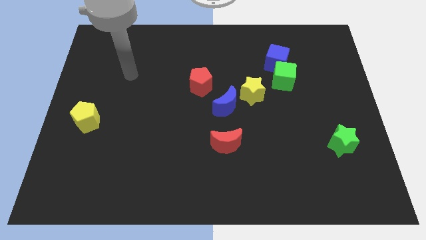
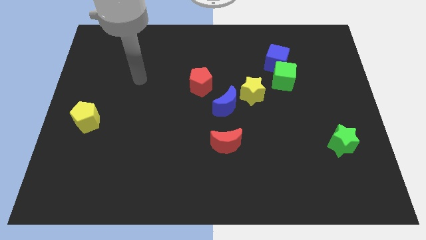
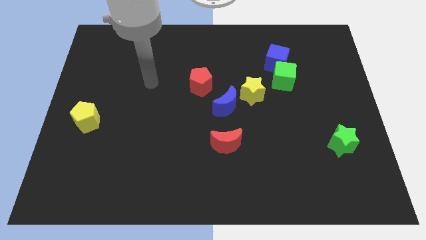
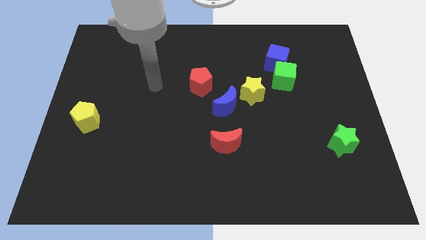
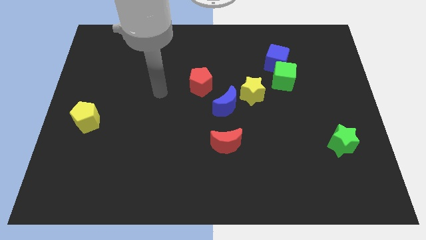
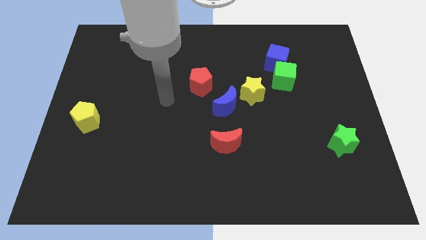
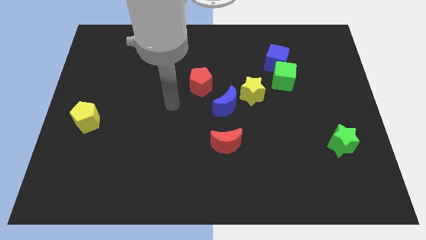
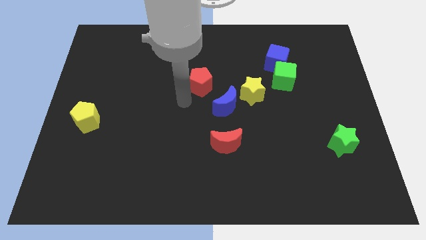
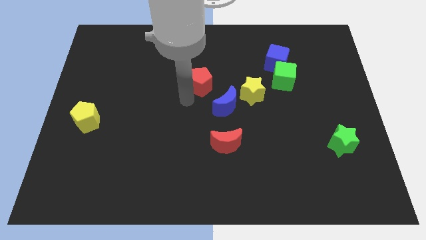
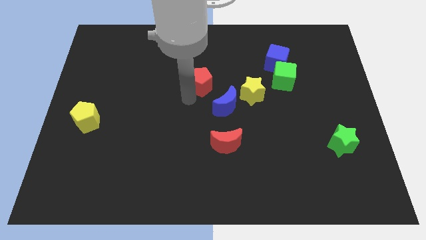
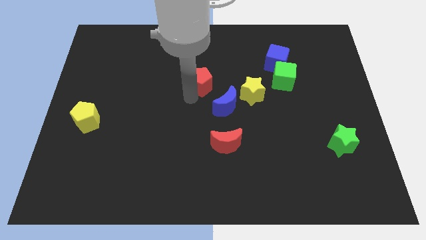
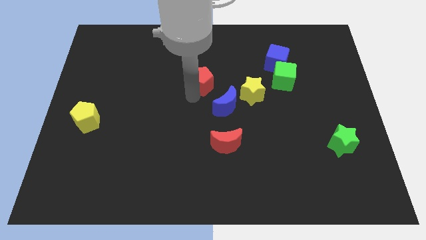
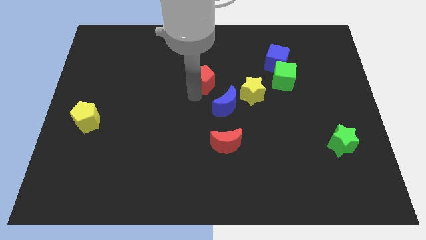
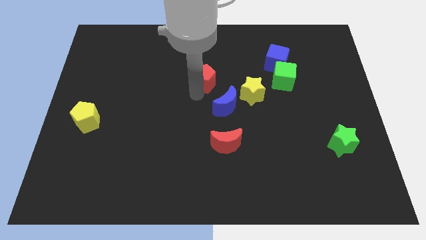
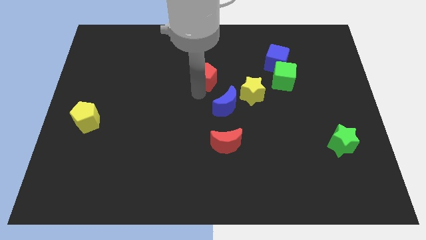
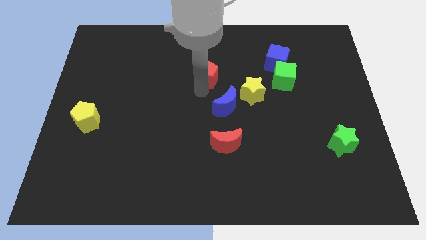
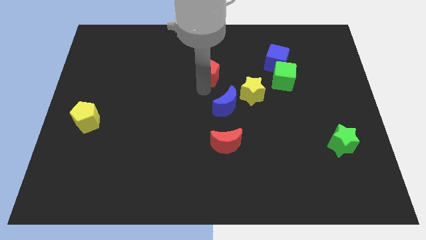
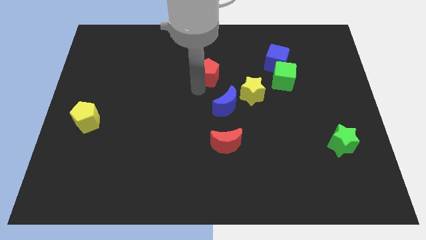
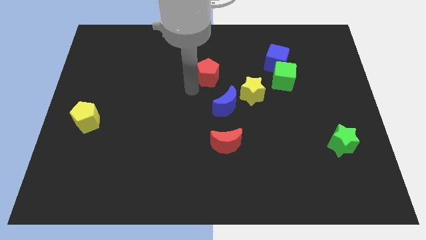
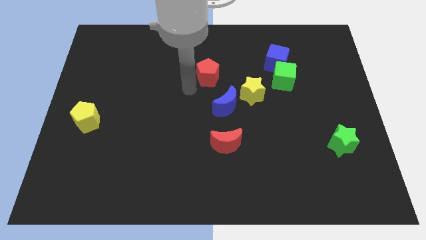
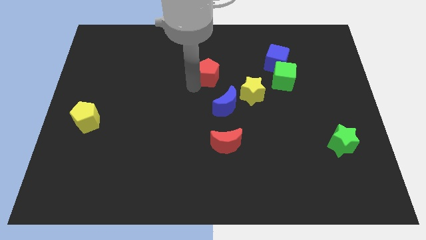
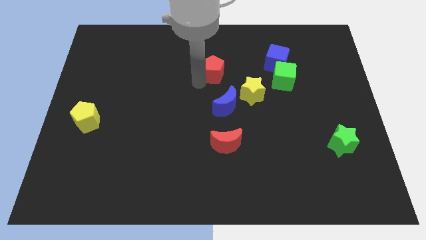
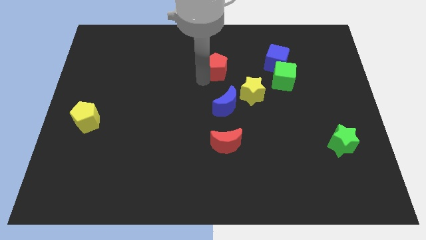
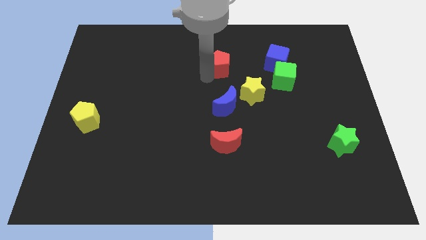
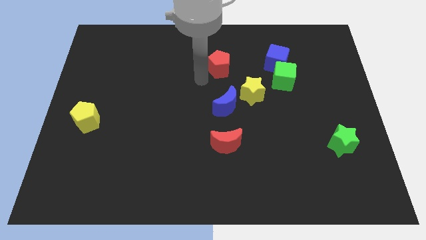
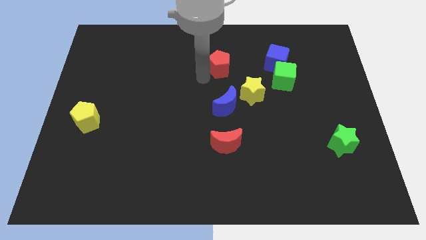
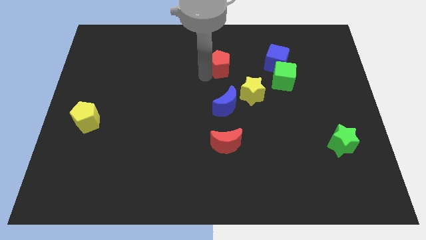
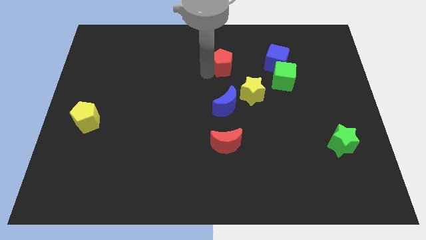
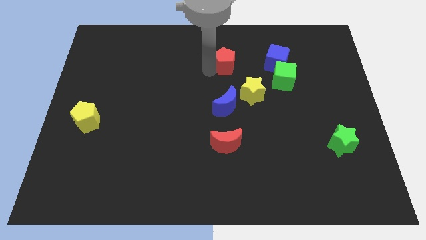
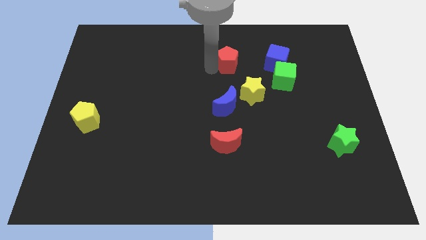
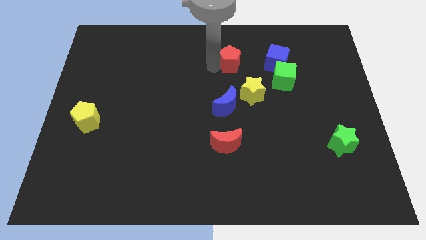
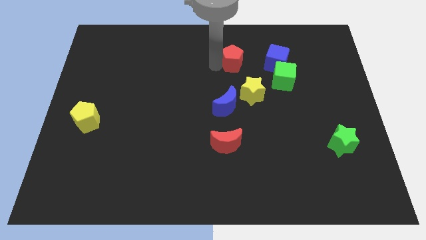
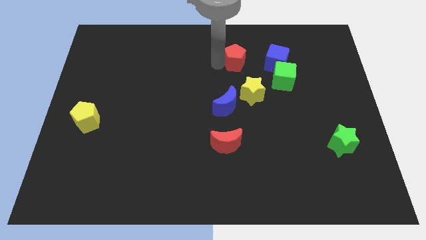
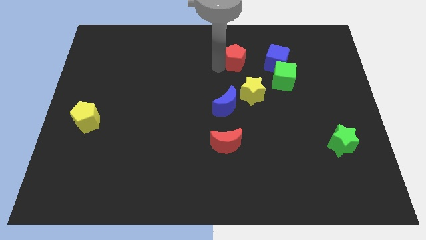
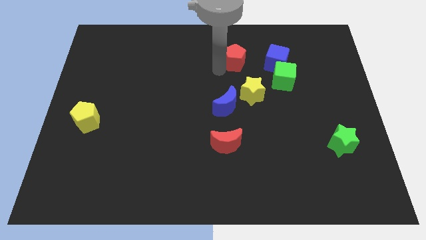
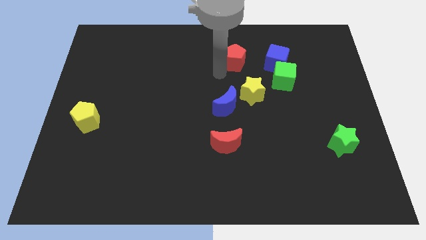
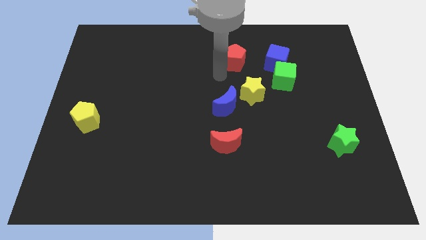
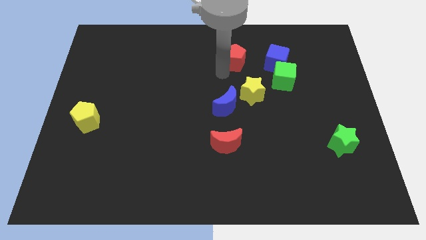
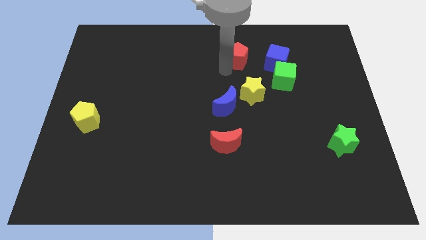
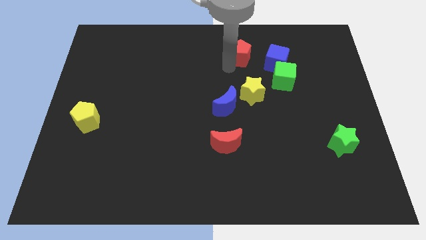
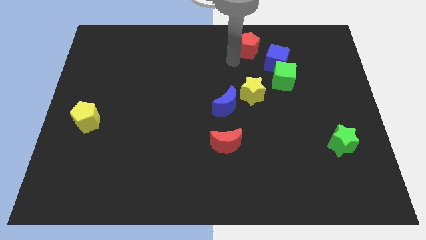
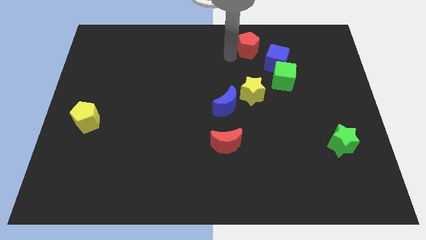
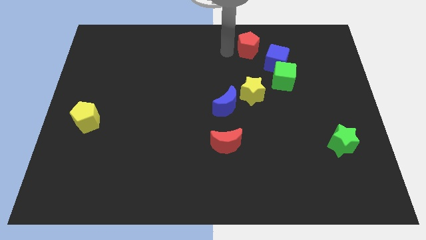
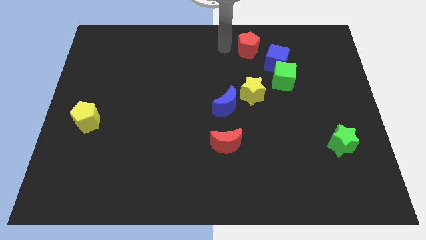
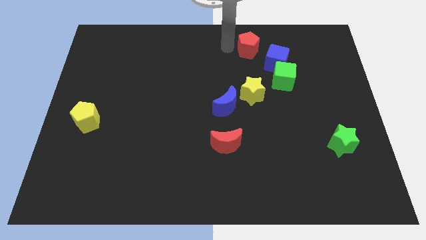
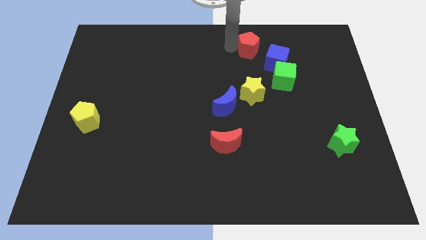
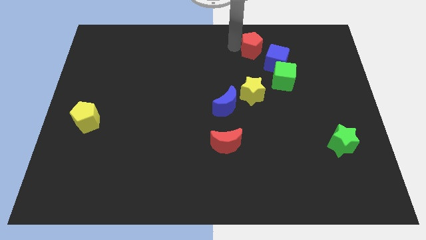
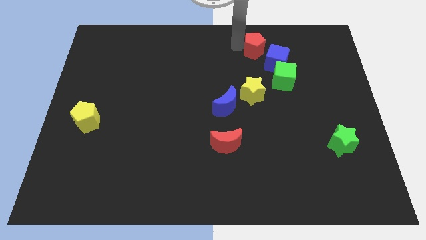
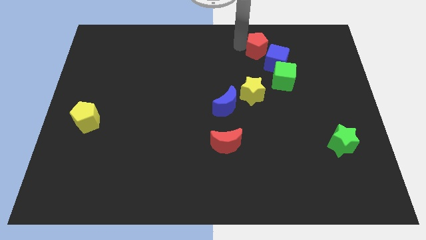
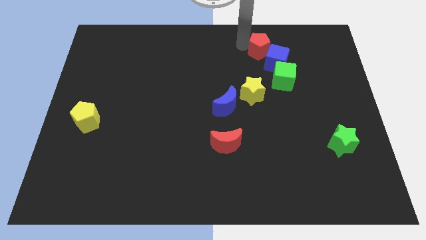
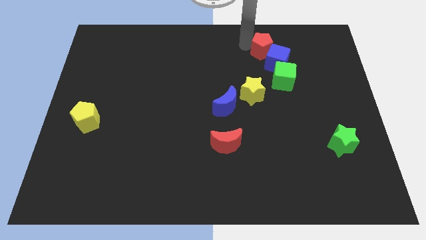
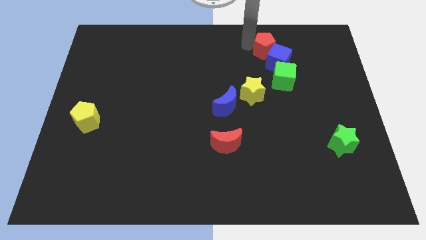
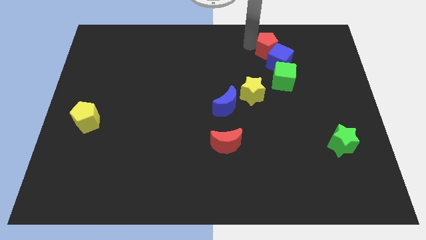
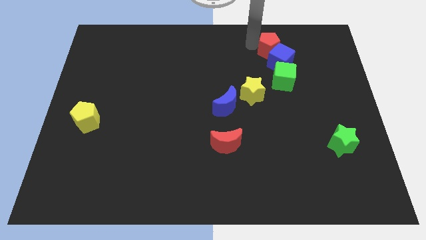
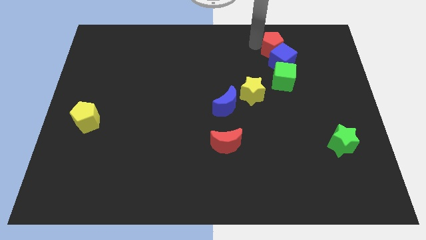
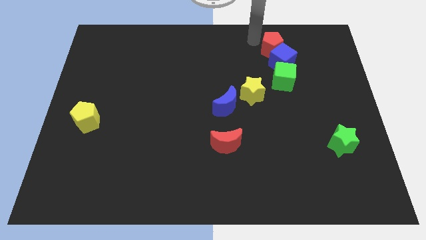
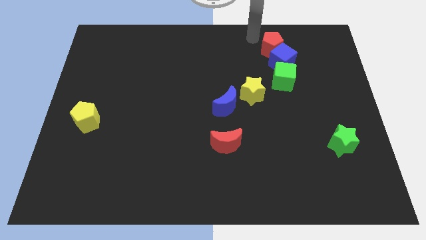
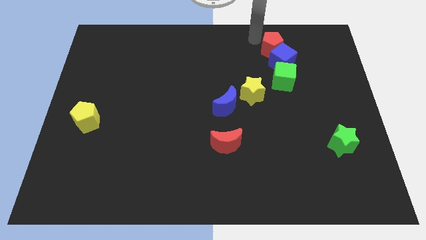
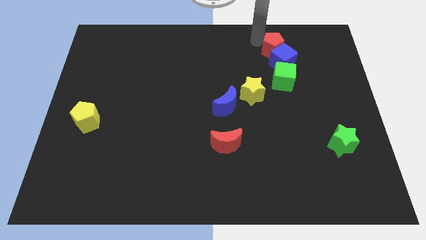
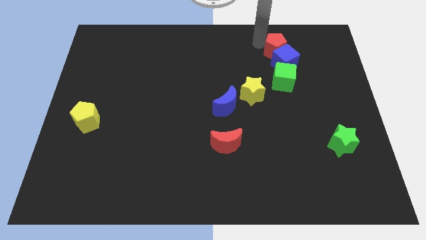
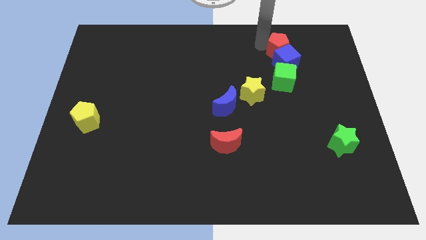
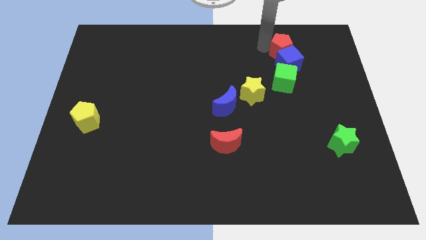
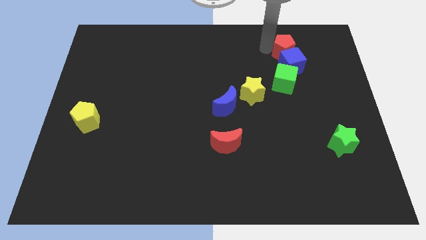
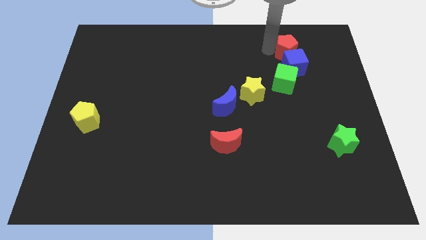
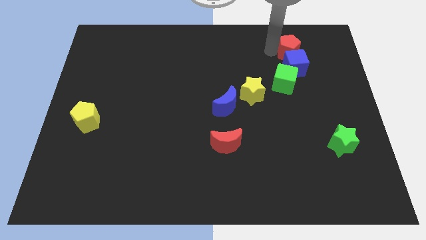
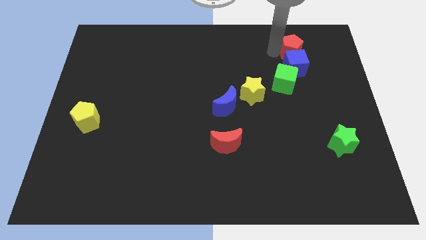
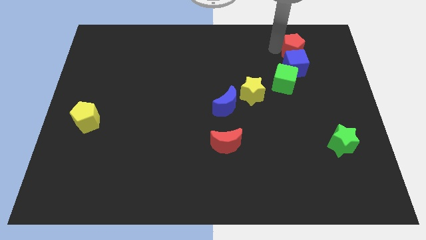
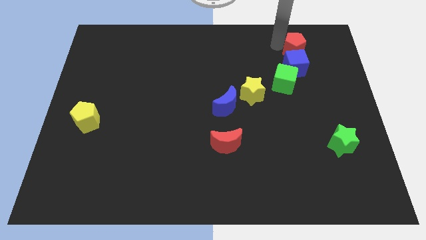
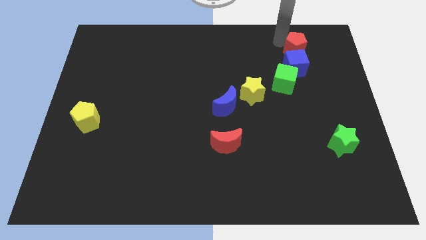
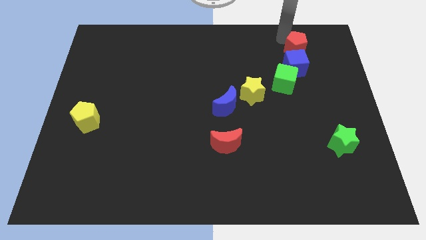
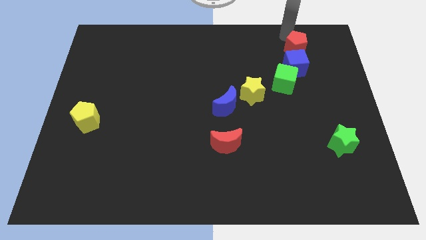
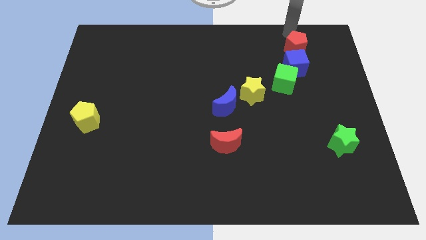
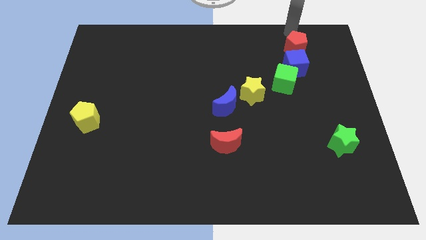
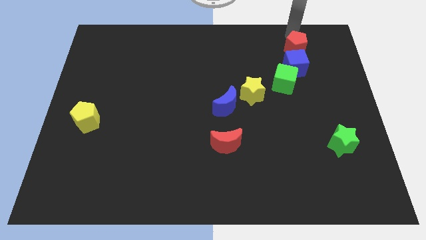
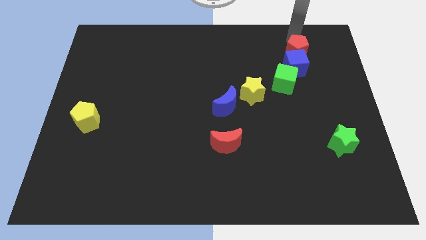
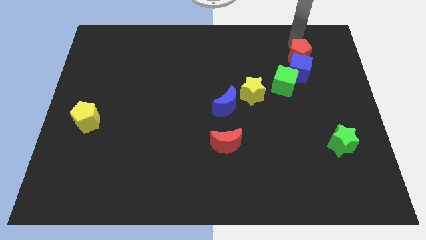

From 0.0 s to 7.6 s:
slide the red pentagon to the top right of the green cube
